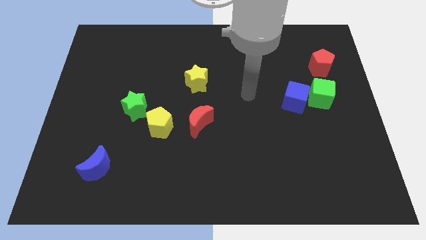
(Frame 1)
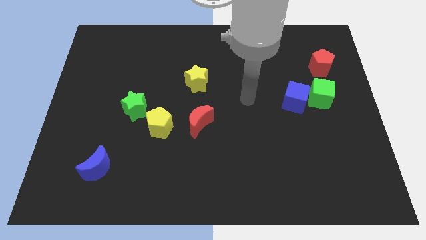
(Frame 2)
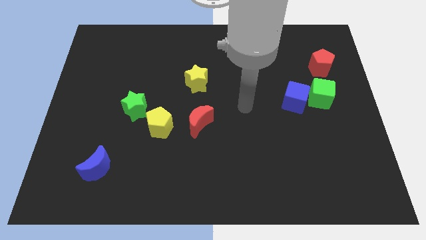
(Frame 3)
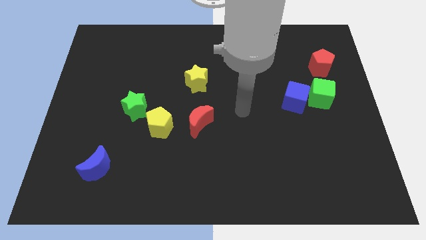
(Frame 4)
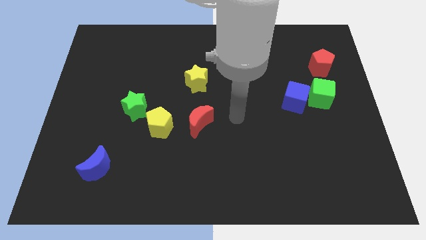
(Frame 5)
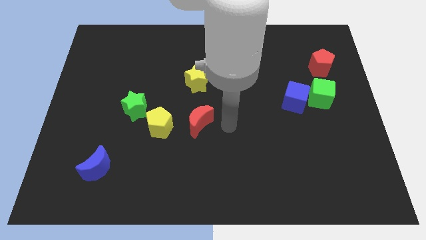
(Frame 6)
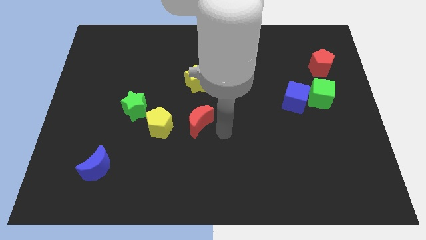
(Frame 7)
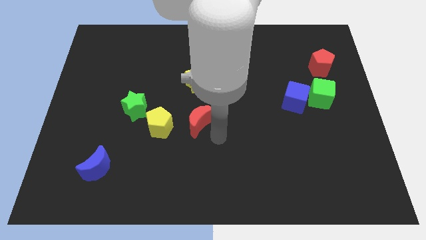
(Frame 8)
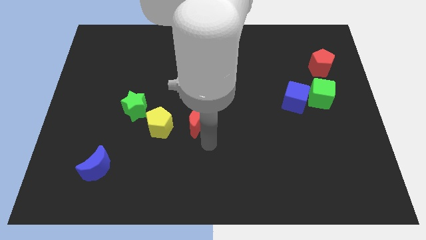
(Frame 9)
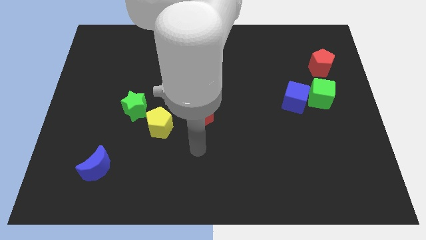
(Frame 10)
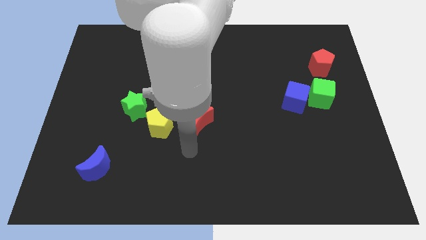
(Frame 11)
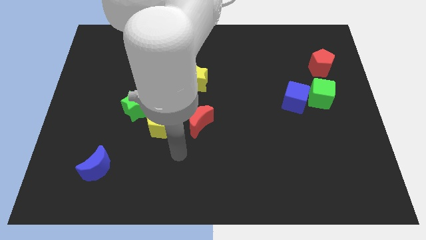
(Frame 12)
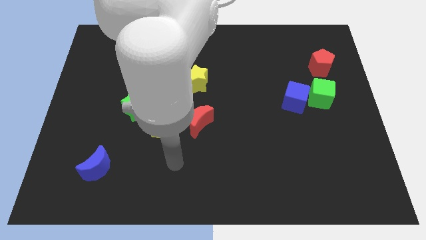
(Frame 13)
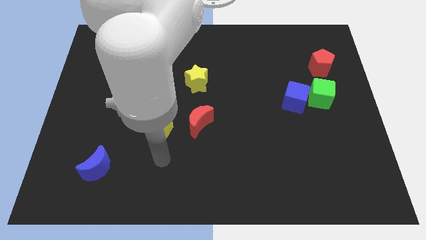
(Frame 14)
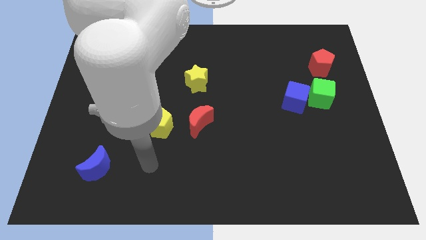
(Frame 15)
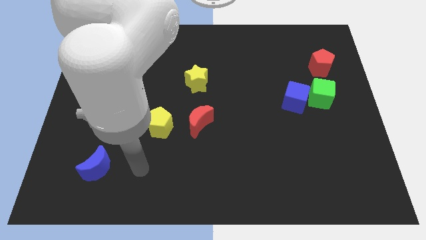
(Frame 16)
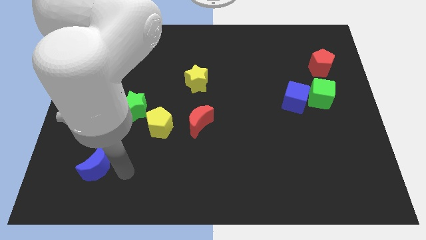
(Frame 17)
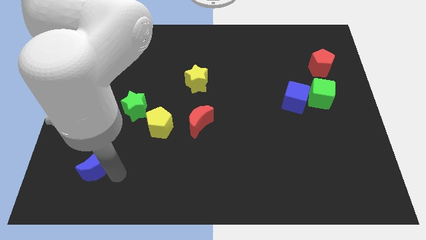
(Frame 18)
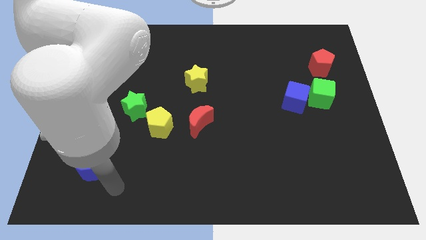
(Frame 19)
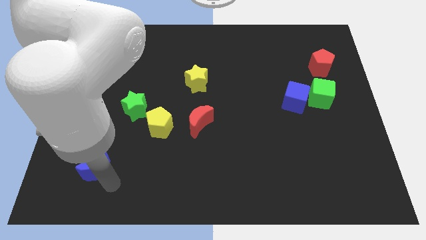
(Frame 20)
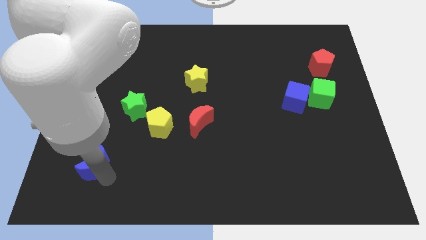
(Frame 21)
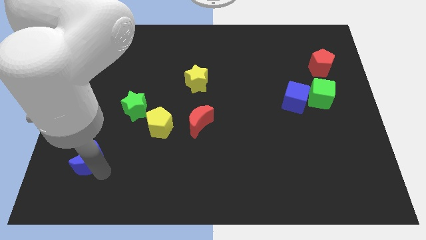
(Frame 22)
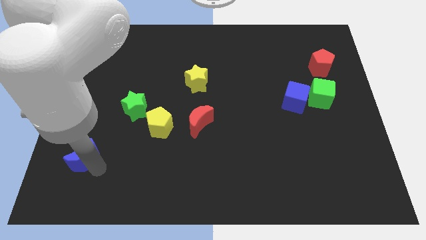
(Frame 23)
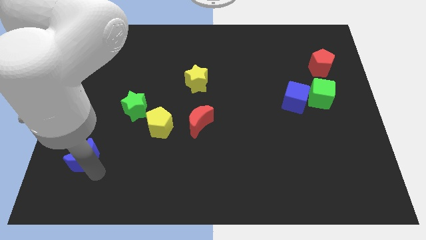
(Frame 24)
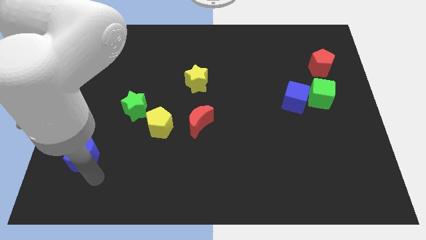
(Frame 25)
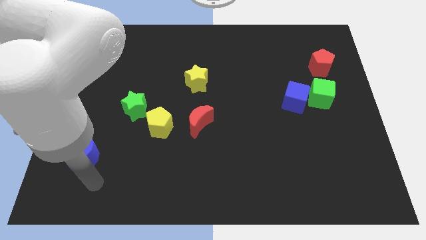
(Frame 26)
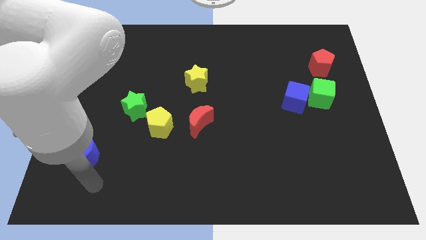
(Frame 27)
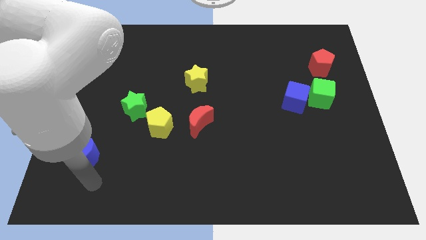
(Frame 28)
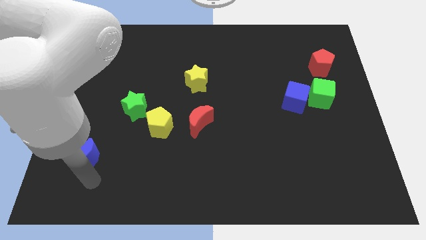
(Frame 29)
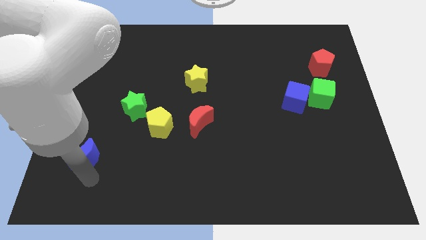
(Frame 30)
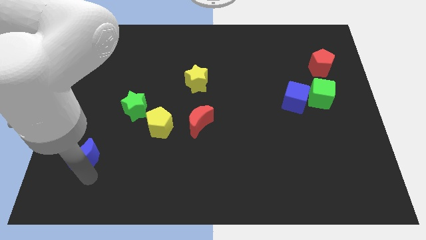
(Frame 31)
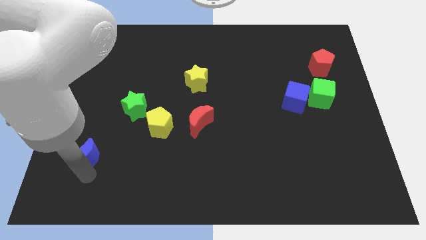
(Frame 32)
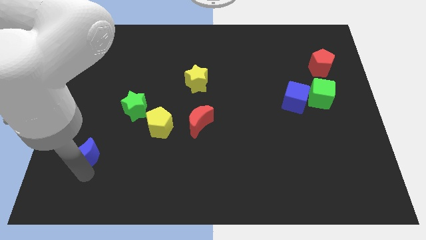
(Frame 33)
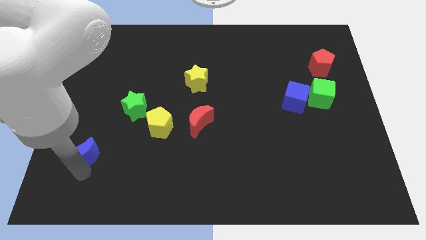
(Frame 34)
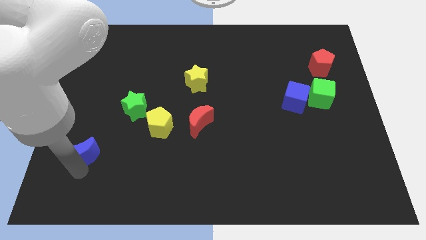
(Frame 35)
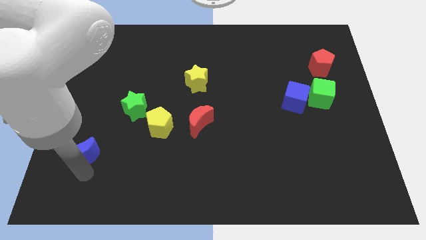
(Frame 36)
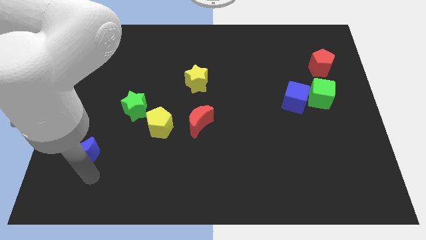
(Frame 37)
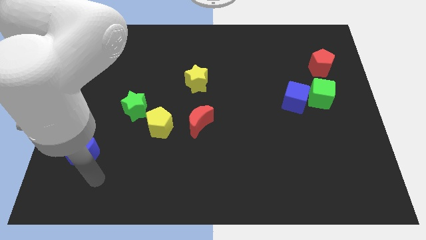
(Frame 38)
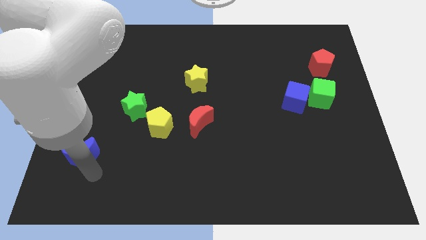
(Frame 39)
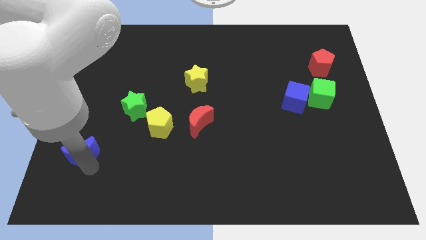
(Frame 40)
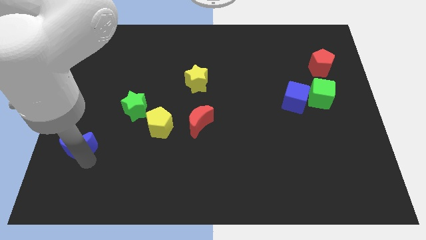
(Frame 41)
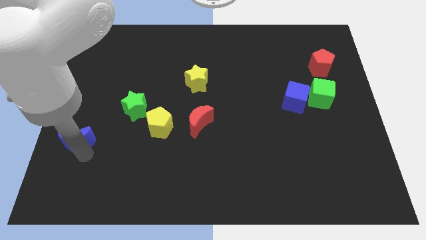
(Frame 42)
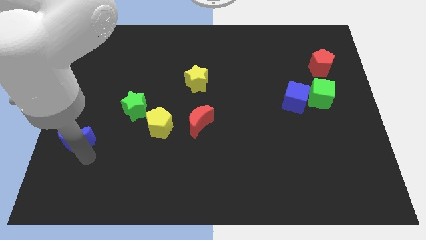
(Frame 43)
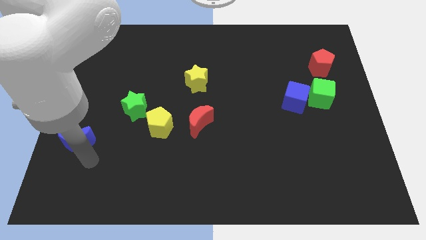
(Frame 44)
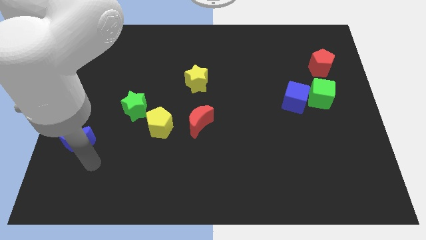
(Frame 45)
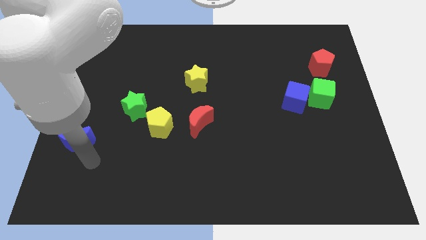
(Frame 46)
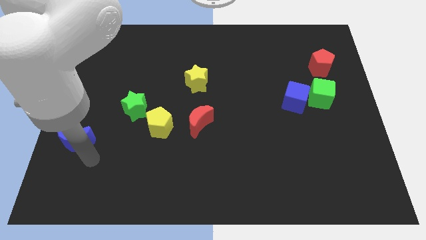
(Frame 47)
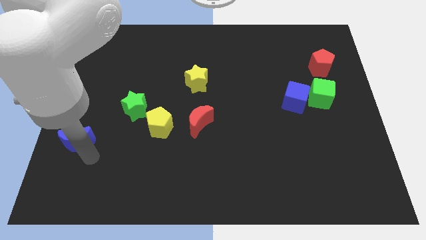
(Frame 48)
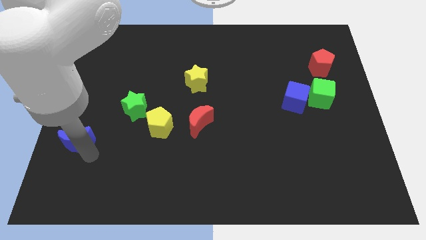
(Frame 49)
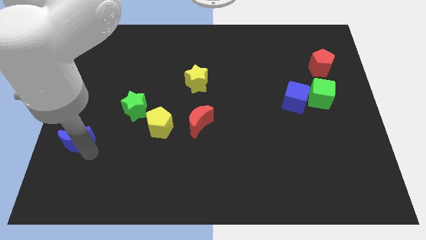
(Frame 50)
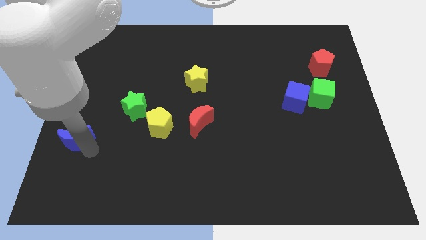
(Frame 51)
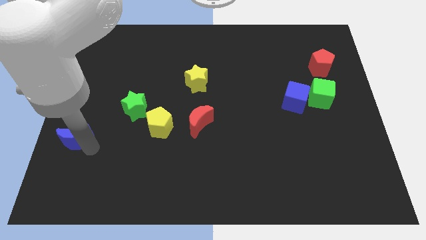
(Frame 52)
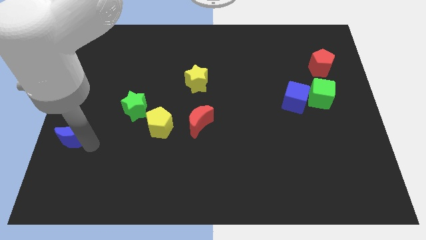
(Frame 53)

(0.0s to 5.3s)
push the blue moon to the center left
